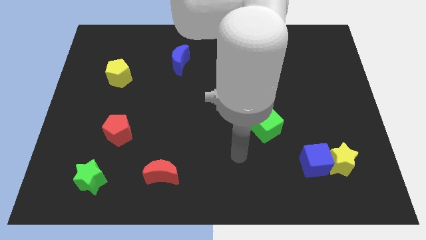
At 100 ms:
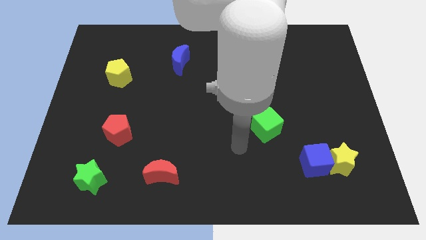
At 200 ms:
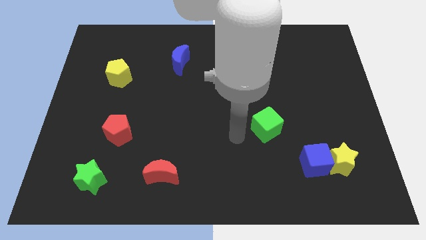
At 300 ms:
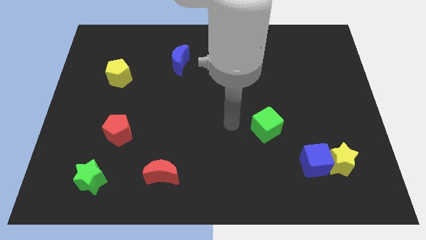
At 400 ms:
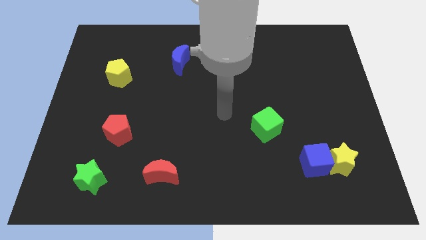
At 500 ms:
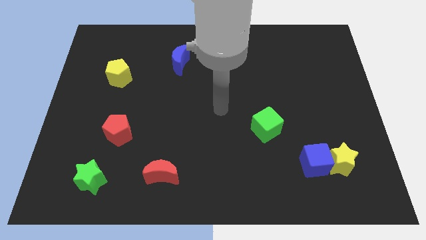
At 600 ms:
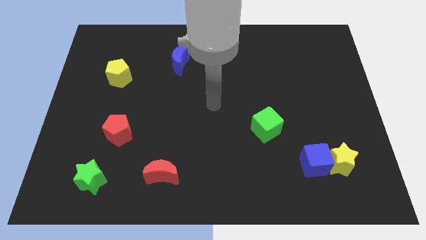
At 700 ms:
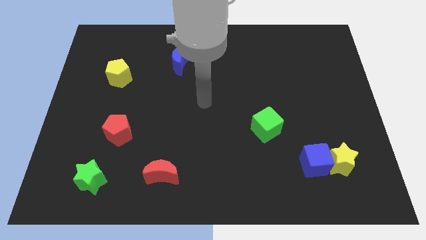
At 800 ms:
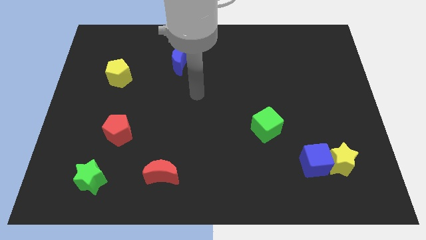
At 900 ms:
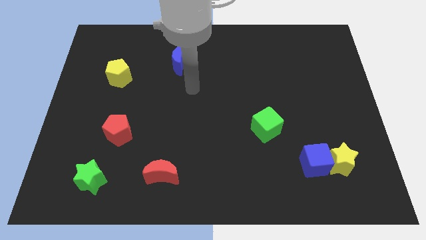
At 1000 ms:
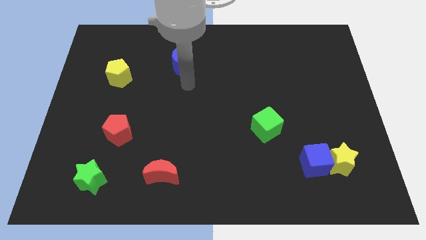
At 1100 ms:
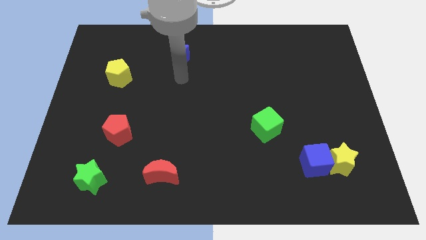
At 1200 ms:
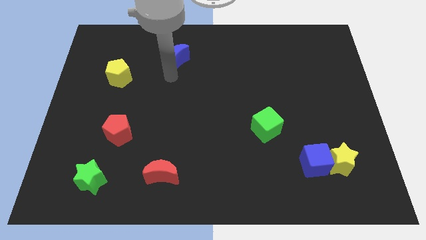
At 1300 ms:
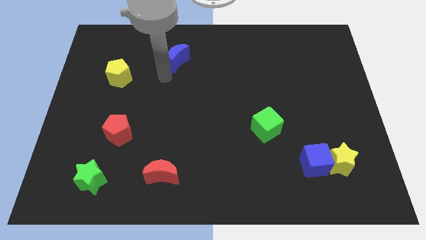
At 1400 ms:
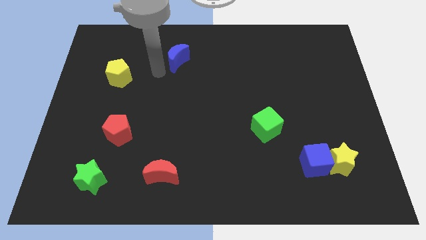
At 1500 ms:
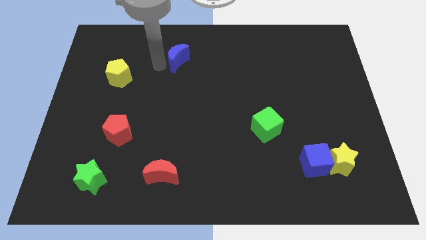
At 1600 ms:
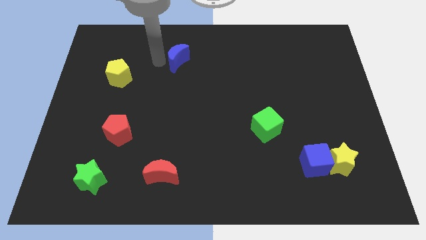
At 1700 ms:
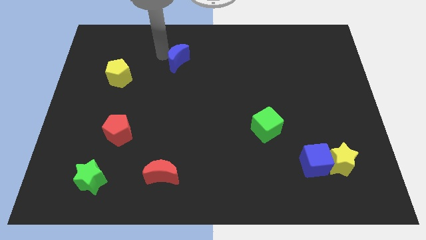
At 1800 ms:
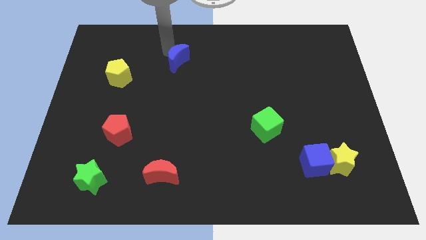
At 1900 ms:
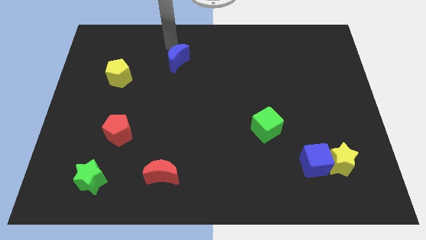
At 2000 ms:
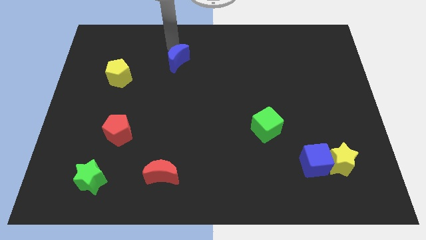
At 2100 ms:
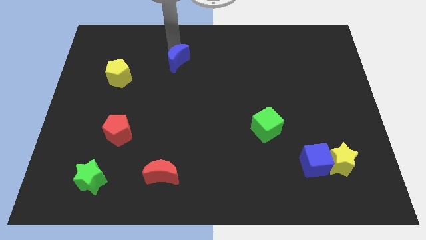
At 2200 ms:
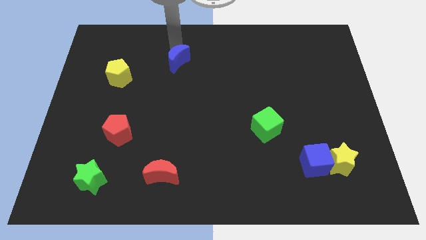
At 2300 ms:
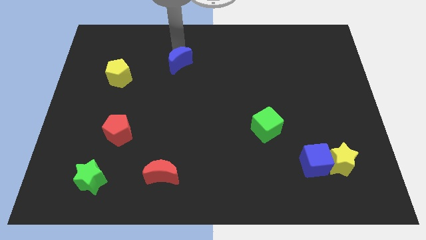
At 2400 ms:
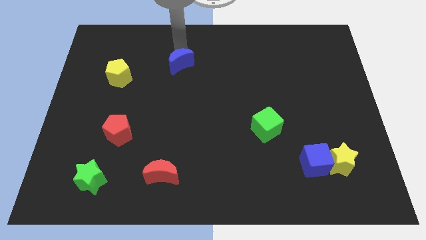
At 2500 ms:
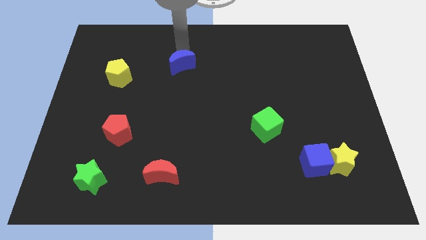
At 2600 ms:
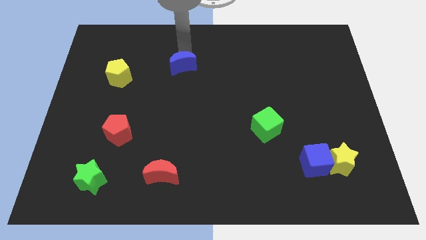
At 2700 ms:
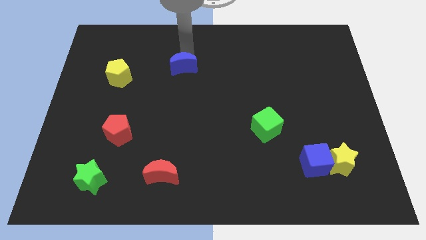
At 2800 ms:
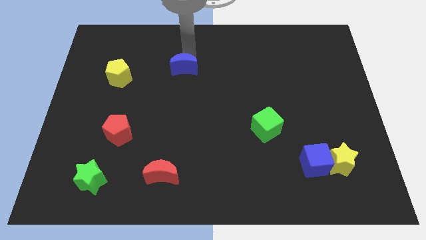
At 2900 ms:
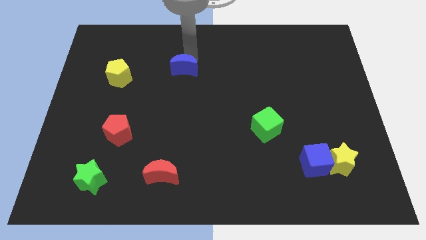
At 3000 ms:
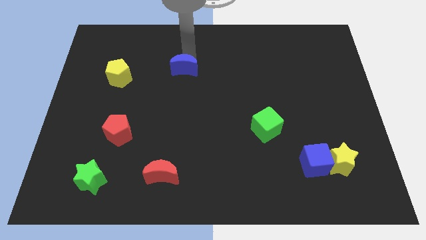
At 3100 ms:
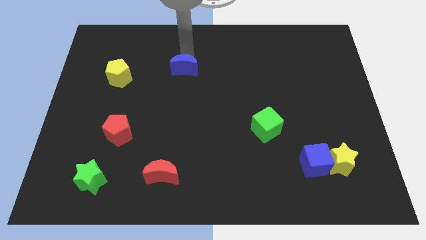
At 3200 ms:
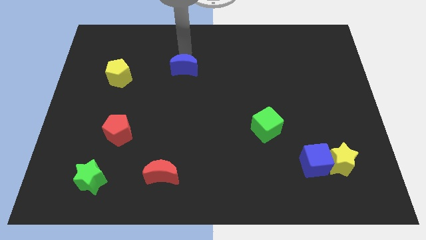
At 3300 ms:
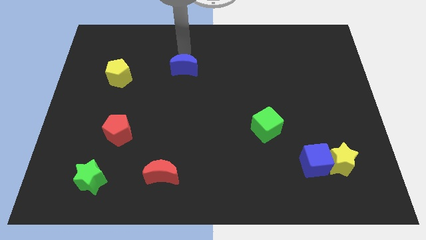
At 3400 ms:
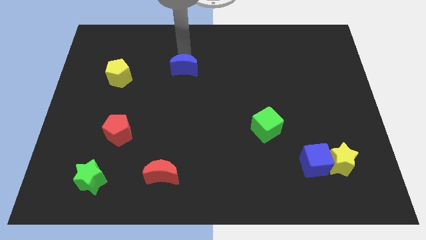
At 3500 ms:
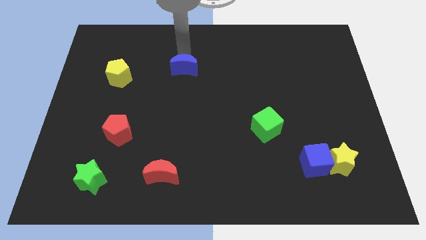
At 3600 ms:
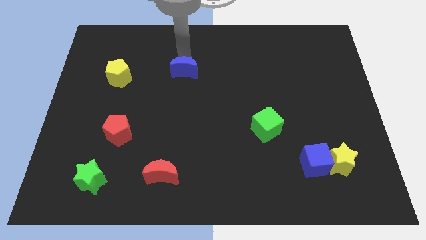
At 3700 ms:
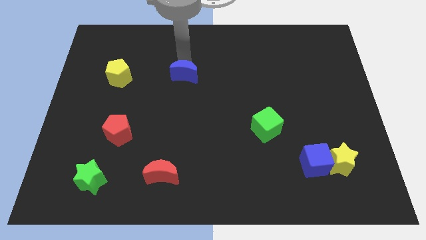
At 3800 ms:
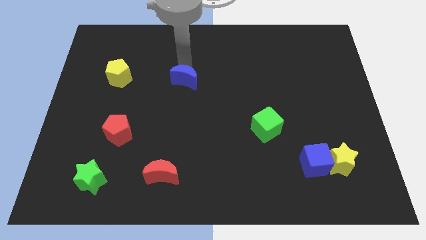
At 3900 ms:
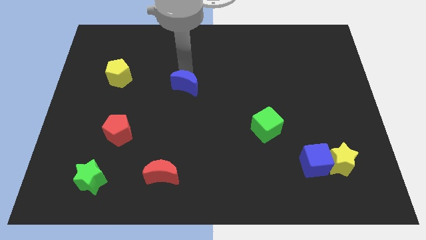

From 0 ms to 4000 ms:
push the blue moon down somewhat

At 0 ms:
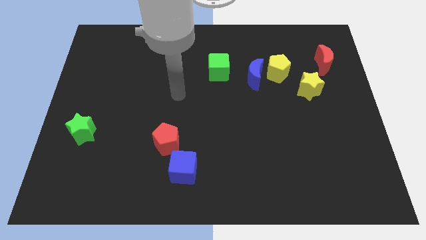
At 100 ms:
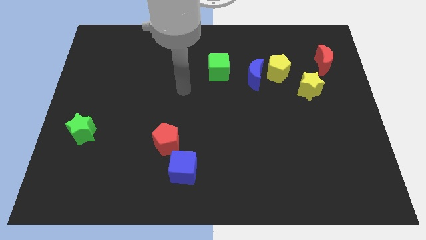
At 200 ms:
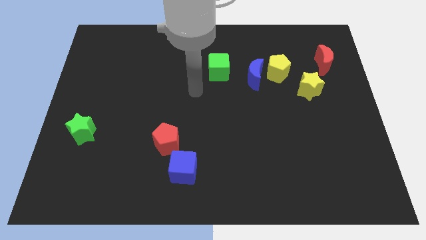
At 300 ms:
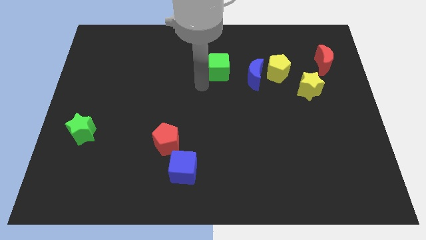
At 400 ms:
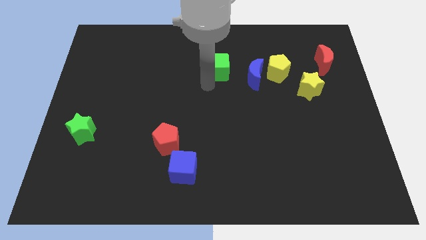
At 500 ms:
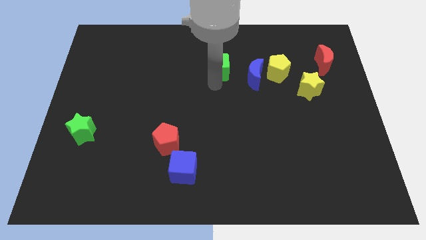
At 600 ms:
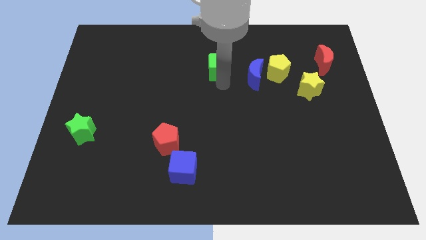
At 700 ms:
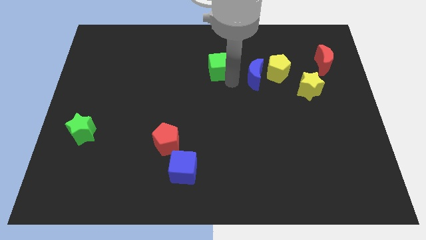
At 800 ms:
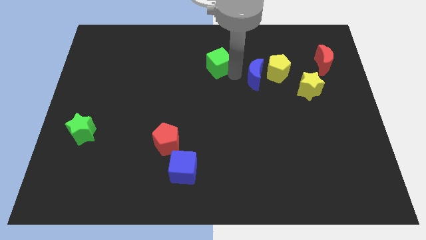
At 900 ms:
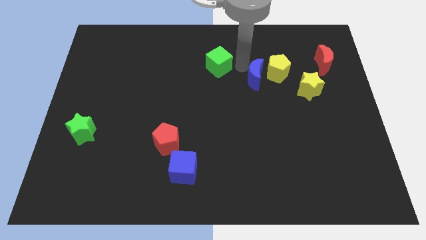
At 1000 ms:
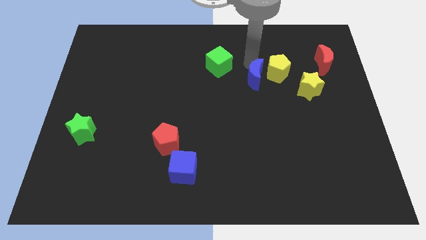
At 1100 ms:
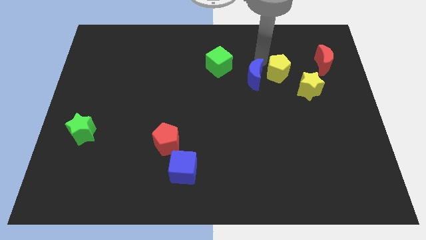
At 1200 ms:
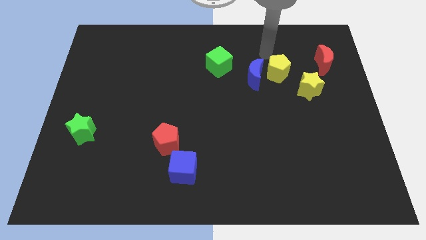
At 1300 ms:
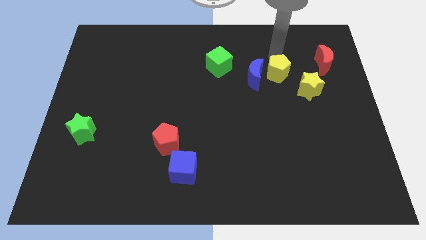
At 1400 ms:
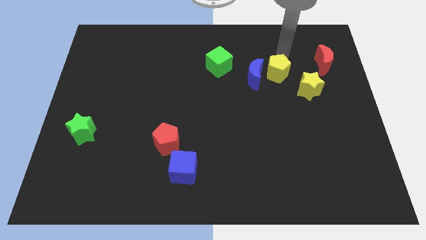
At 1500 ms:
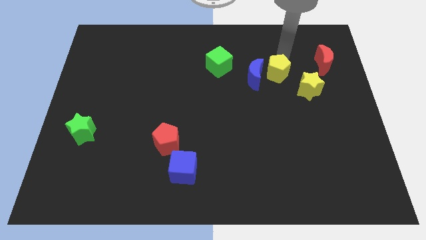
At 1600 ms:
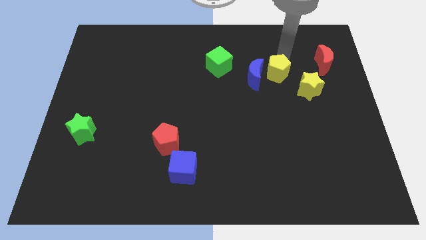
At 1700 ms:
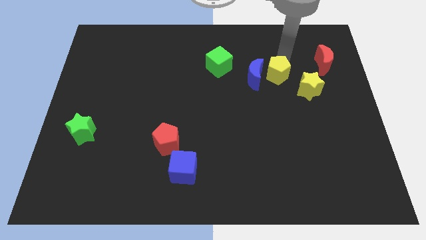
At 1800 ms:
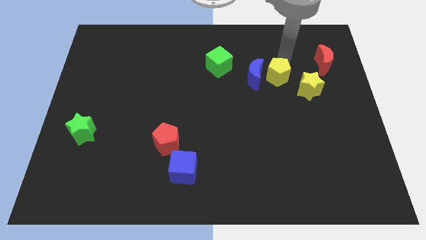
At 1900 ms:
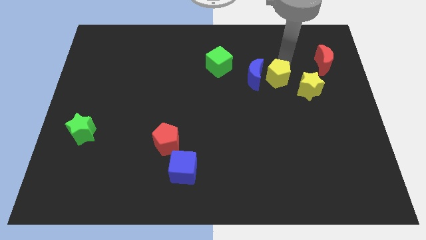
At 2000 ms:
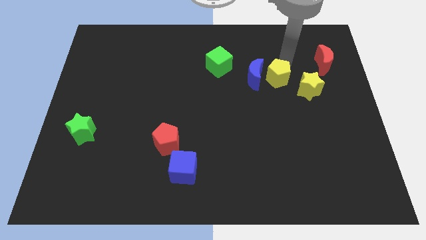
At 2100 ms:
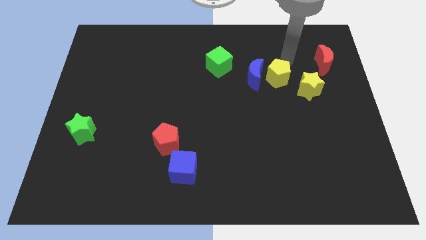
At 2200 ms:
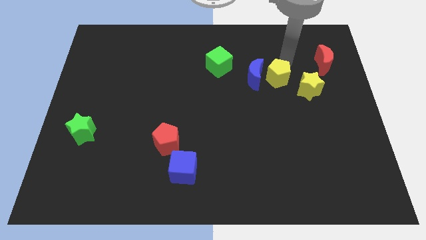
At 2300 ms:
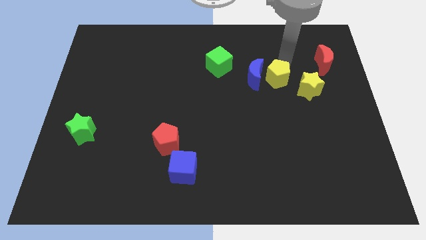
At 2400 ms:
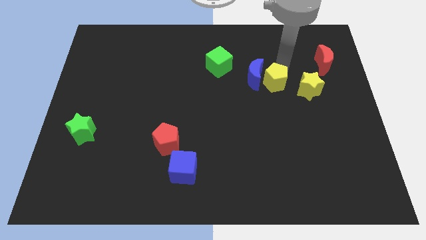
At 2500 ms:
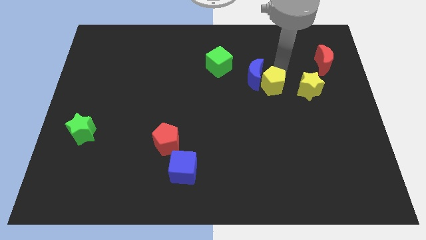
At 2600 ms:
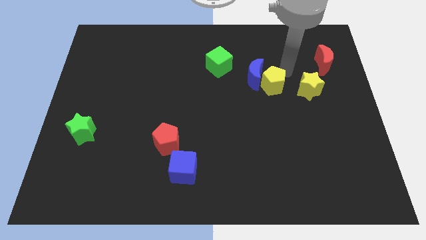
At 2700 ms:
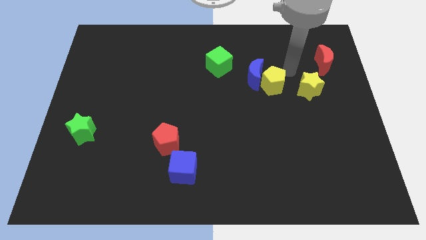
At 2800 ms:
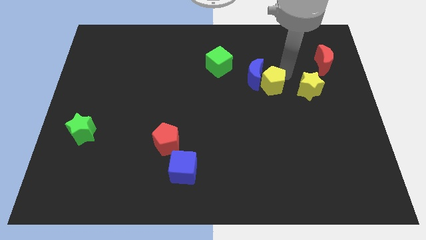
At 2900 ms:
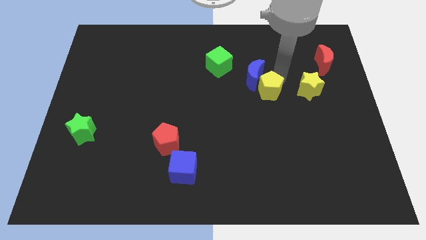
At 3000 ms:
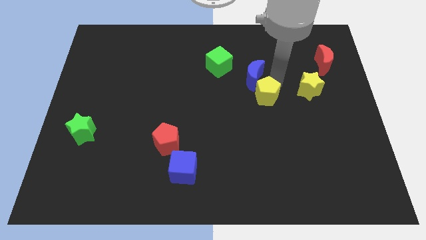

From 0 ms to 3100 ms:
move the yellow pentagon a bit downwards and left

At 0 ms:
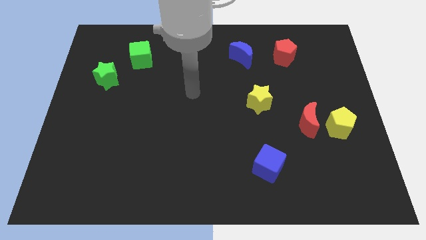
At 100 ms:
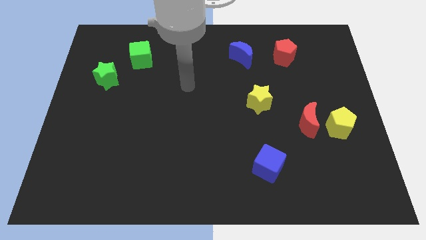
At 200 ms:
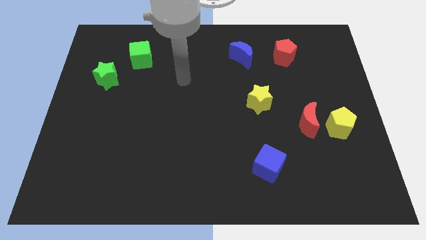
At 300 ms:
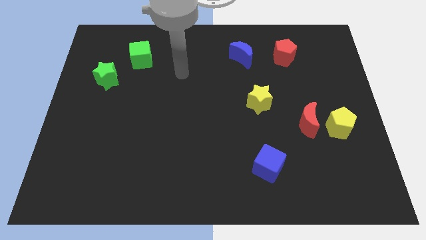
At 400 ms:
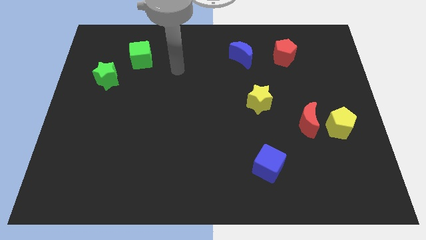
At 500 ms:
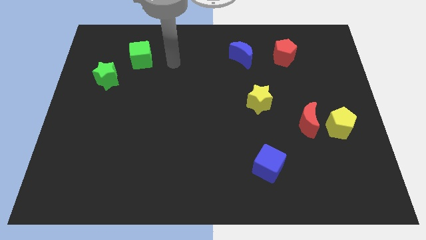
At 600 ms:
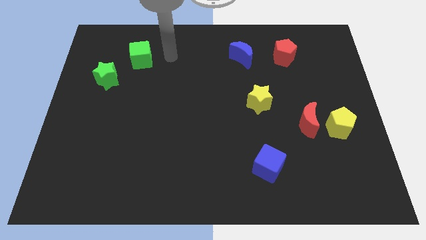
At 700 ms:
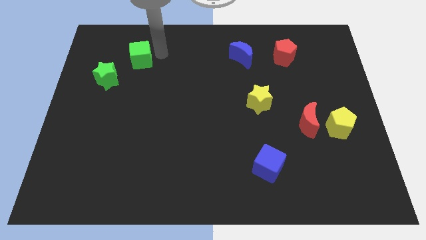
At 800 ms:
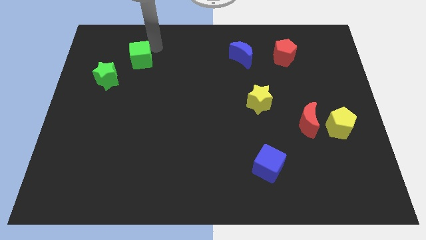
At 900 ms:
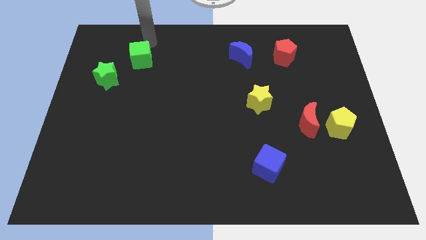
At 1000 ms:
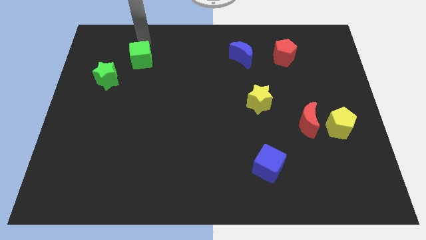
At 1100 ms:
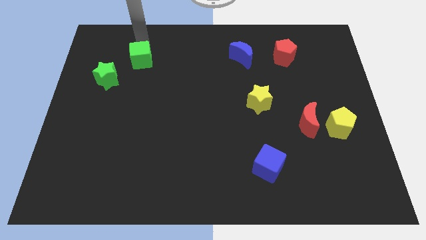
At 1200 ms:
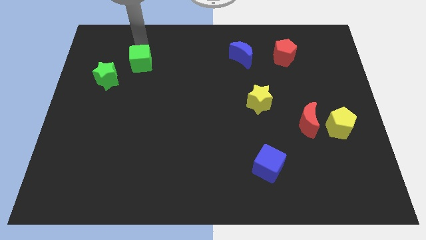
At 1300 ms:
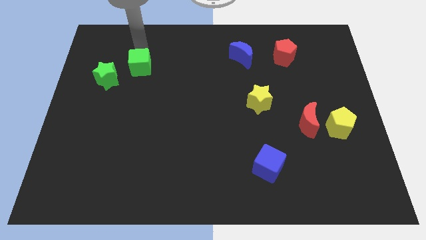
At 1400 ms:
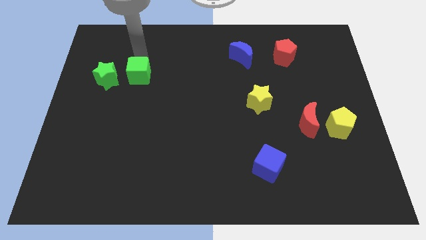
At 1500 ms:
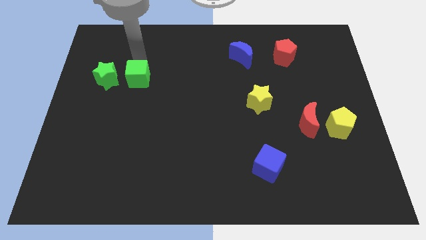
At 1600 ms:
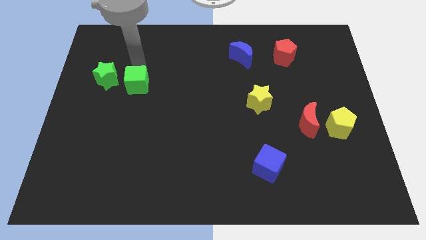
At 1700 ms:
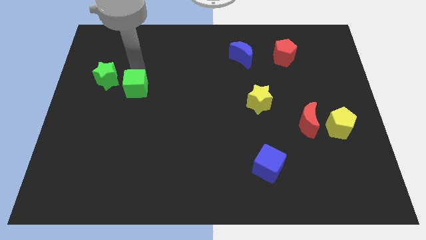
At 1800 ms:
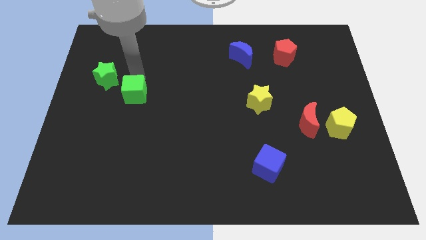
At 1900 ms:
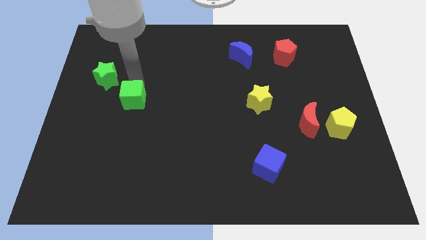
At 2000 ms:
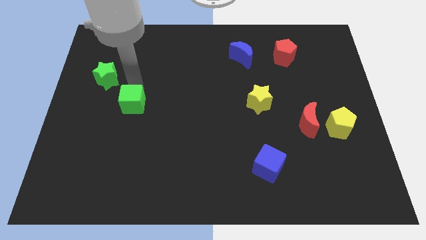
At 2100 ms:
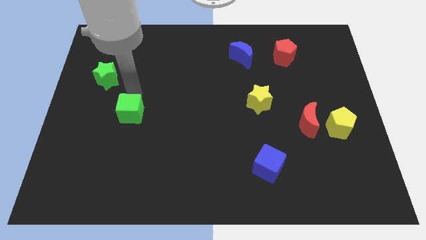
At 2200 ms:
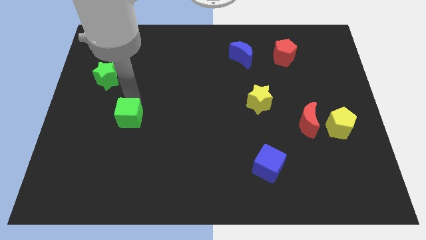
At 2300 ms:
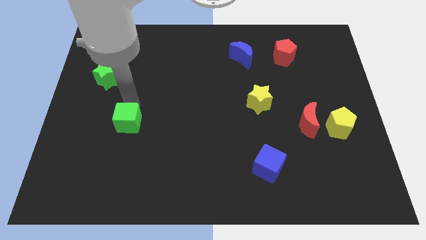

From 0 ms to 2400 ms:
move the green cube down
